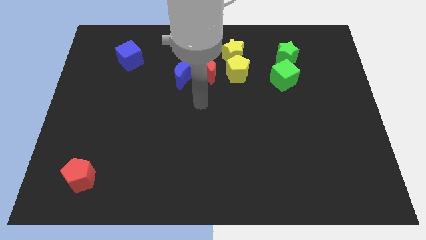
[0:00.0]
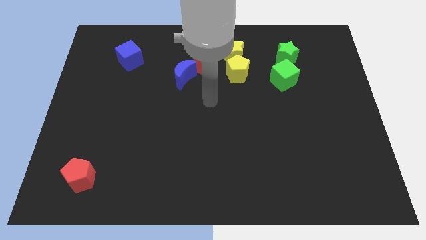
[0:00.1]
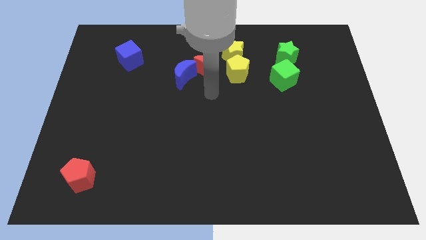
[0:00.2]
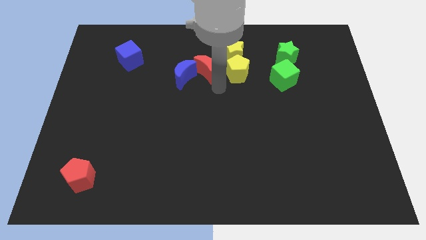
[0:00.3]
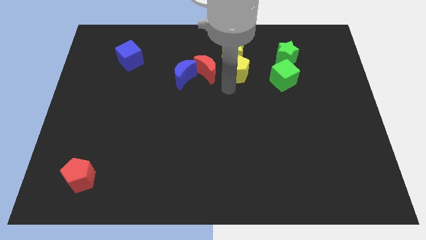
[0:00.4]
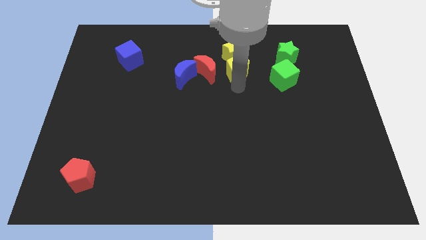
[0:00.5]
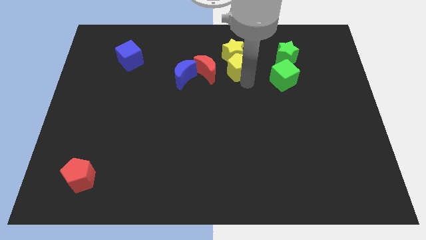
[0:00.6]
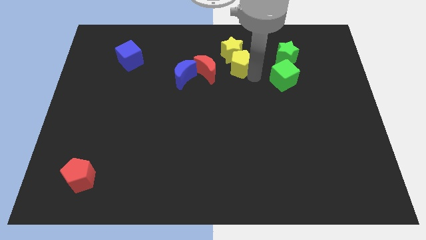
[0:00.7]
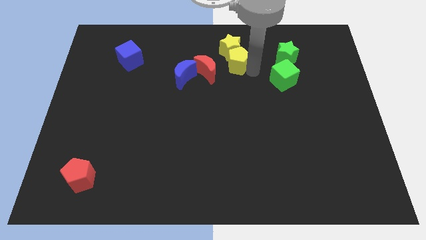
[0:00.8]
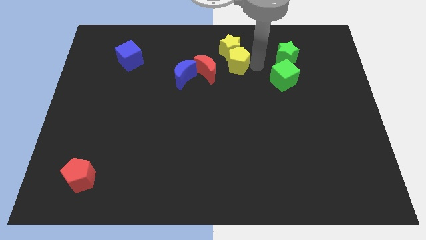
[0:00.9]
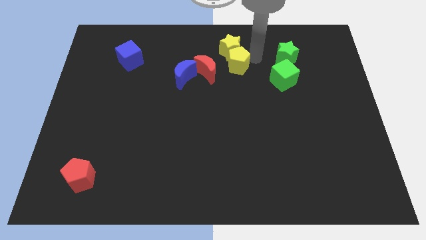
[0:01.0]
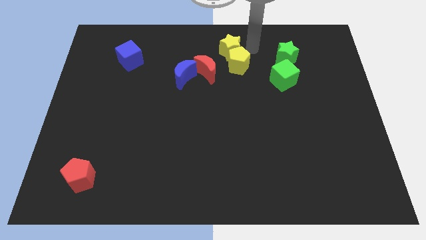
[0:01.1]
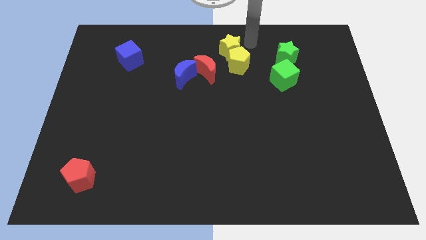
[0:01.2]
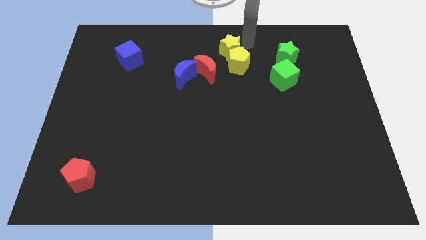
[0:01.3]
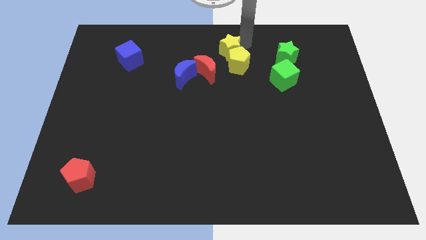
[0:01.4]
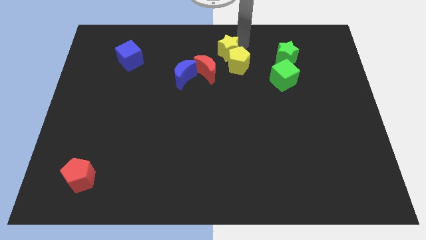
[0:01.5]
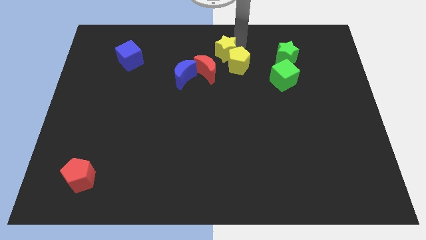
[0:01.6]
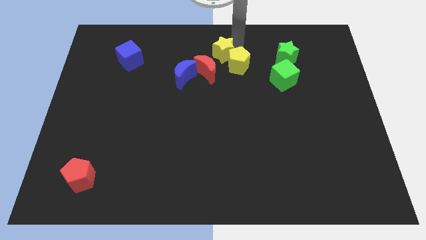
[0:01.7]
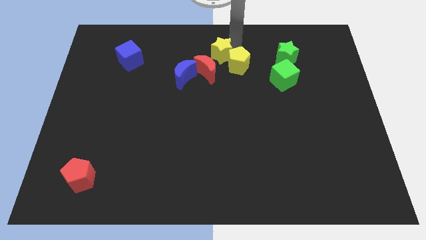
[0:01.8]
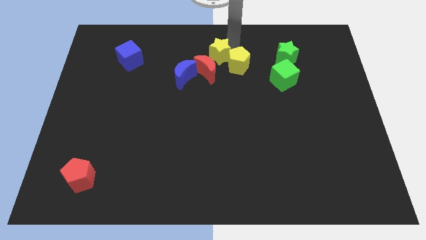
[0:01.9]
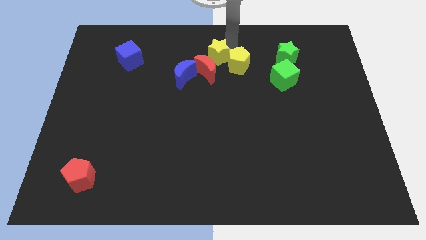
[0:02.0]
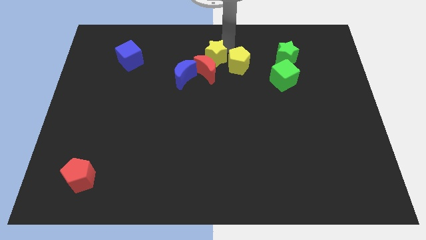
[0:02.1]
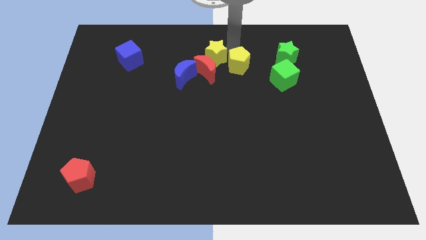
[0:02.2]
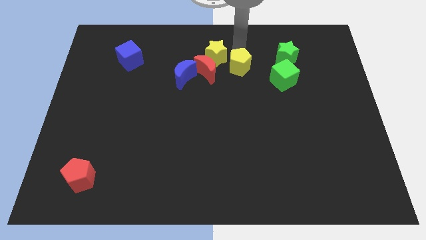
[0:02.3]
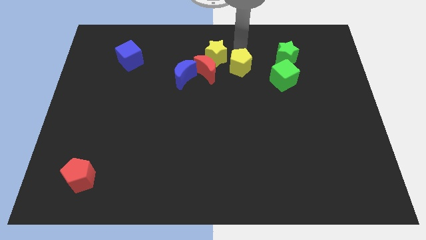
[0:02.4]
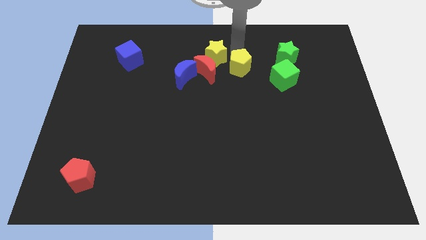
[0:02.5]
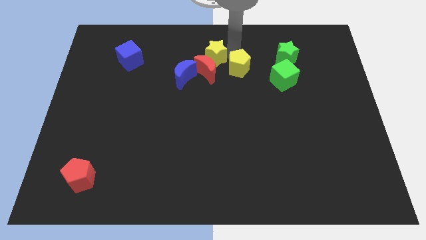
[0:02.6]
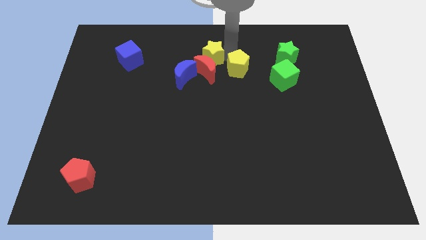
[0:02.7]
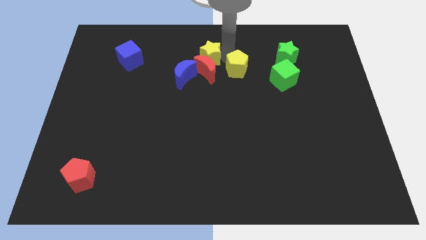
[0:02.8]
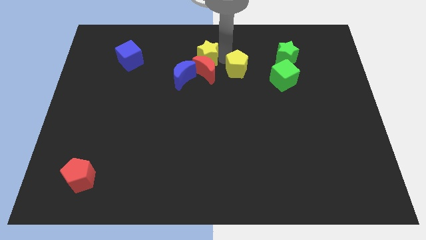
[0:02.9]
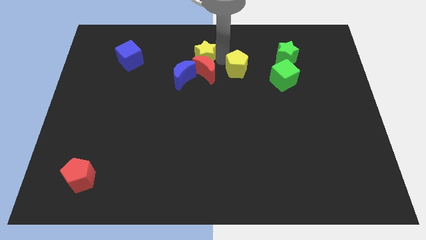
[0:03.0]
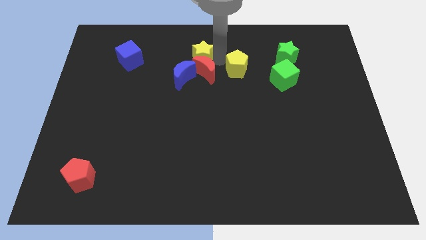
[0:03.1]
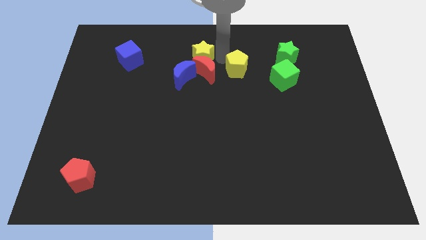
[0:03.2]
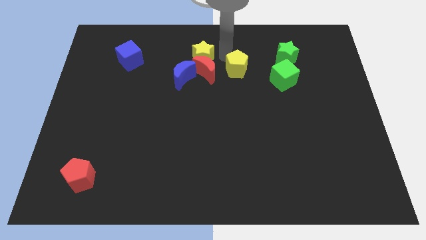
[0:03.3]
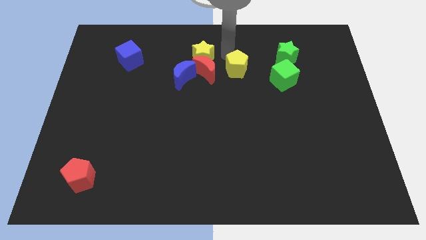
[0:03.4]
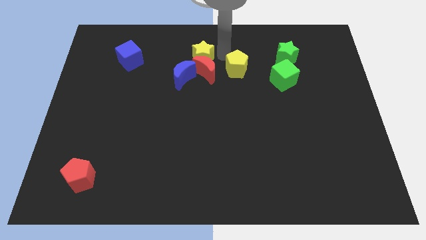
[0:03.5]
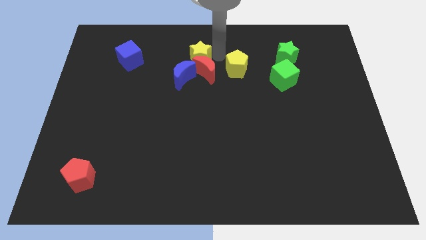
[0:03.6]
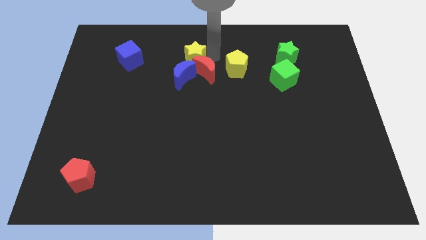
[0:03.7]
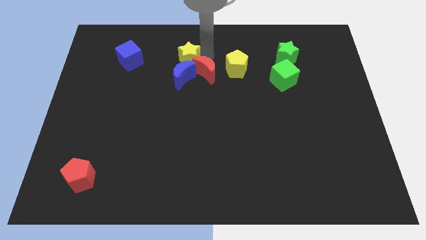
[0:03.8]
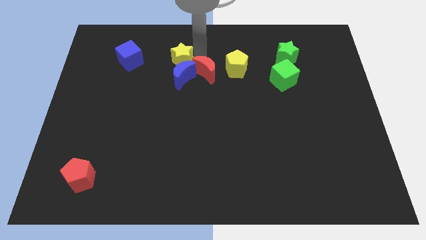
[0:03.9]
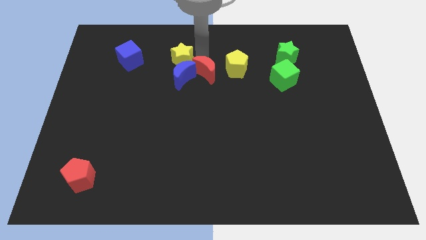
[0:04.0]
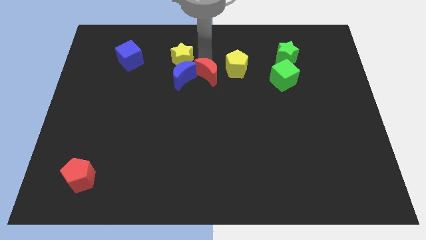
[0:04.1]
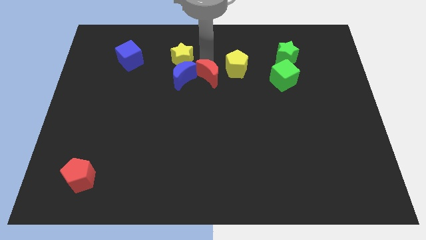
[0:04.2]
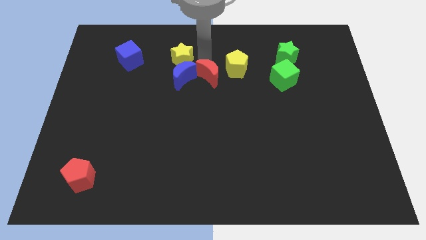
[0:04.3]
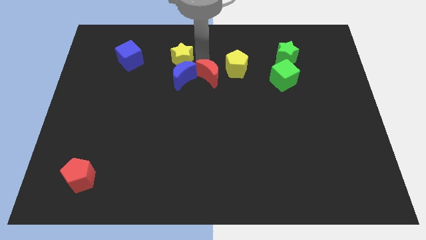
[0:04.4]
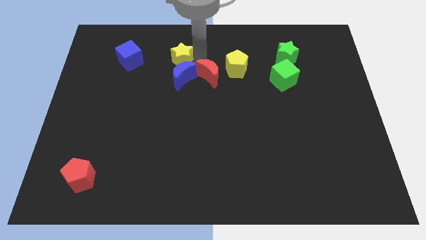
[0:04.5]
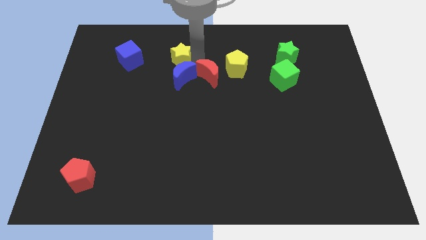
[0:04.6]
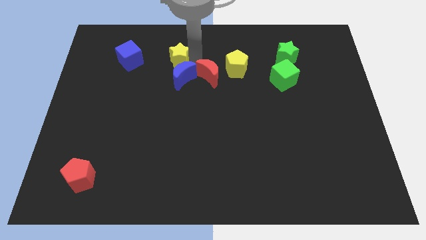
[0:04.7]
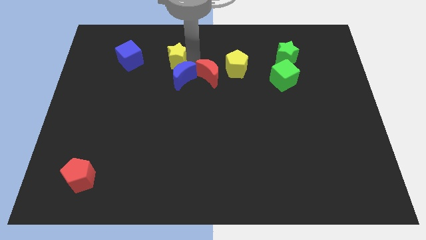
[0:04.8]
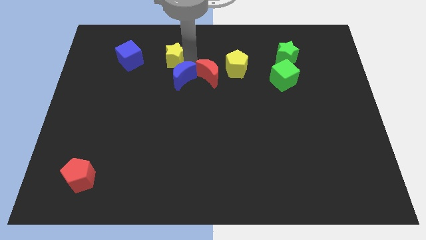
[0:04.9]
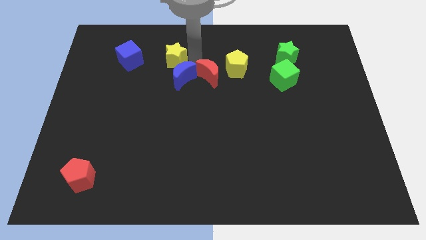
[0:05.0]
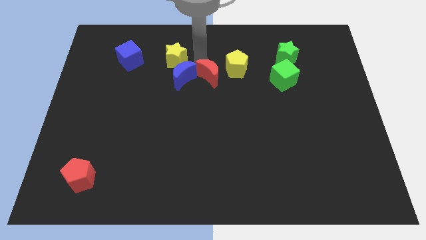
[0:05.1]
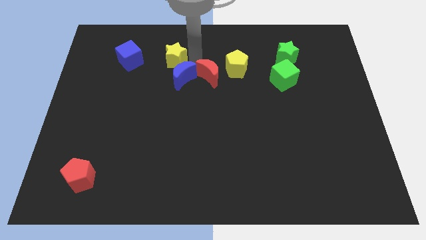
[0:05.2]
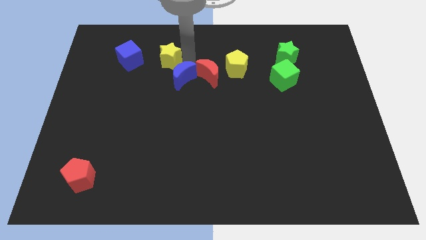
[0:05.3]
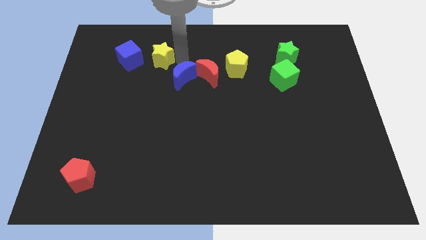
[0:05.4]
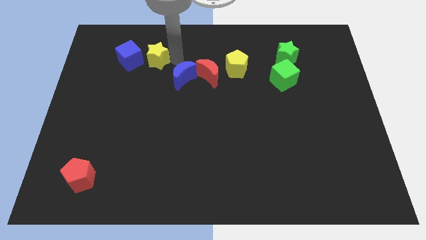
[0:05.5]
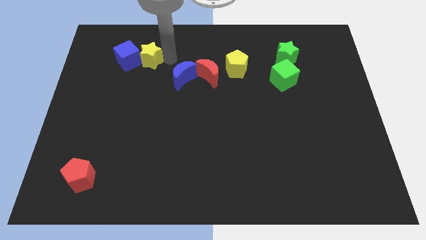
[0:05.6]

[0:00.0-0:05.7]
move the yellow star to the blue cube

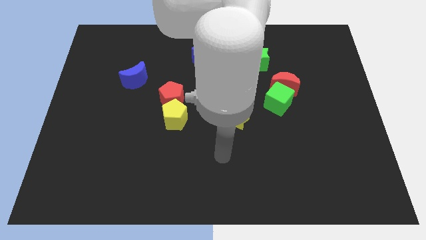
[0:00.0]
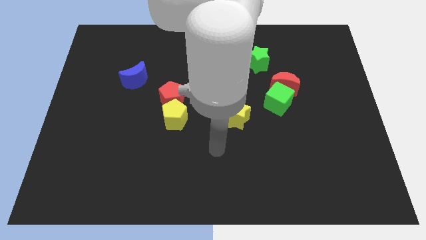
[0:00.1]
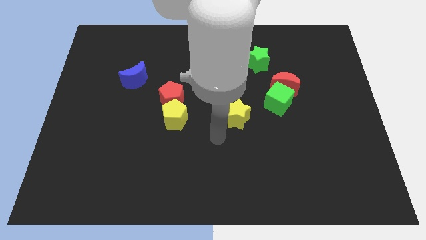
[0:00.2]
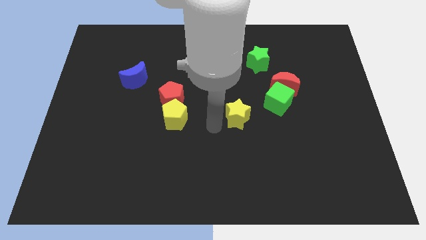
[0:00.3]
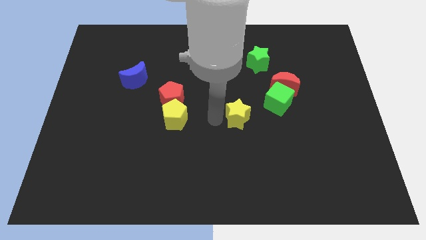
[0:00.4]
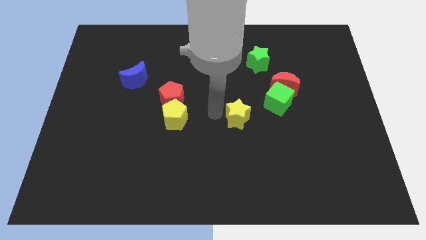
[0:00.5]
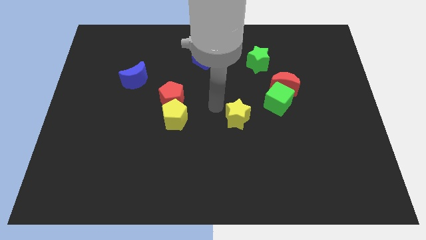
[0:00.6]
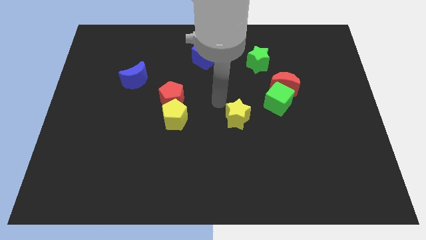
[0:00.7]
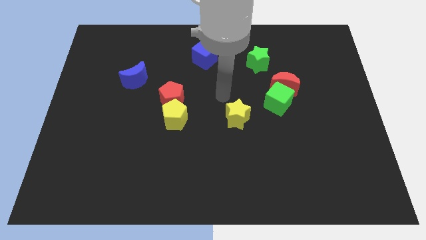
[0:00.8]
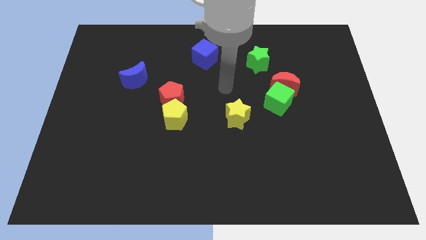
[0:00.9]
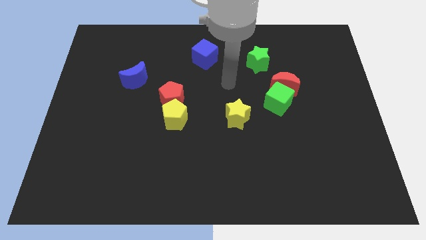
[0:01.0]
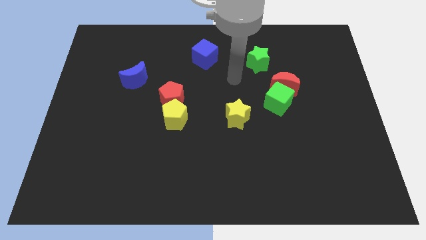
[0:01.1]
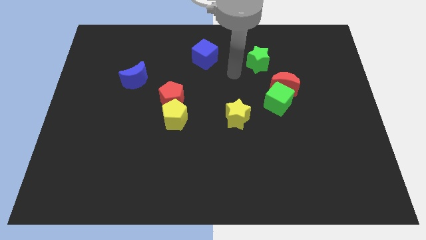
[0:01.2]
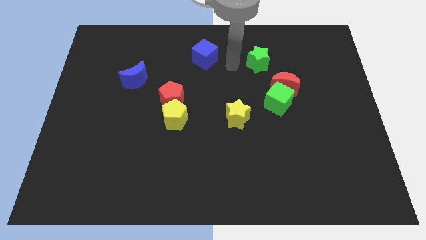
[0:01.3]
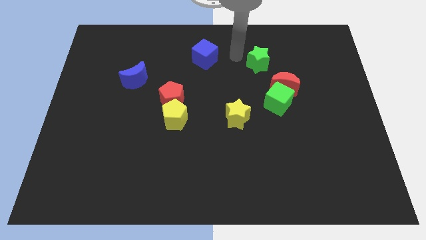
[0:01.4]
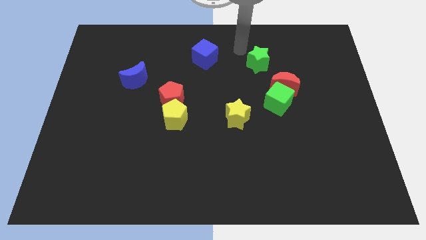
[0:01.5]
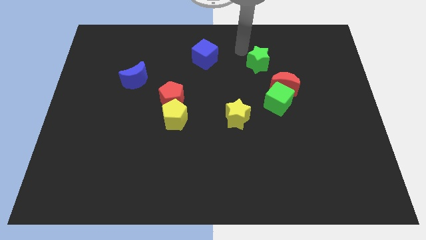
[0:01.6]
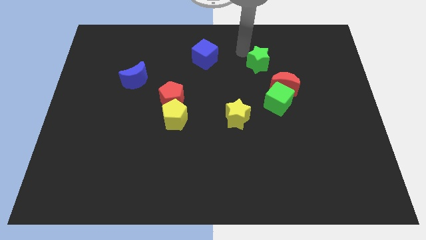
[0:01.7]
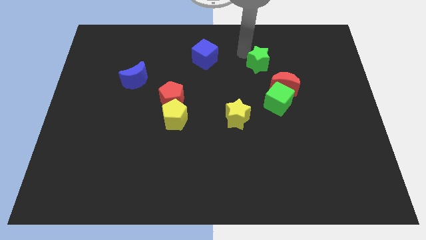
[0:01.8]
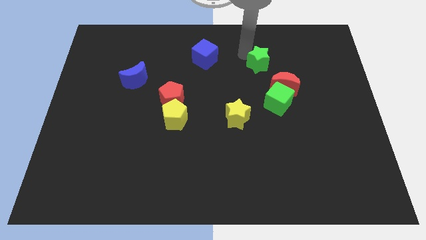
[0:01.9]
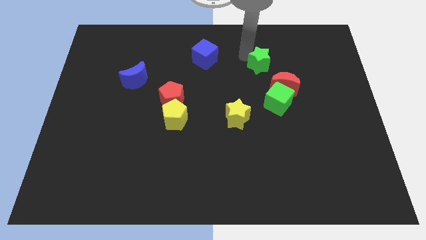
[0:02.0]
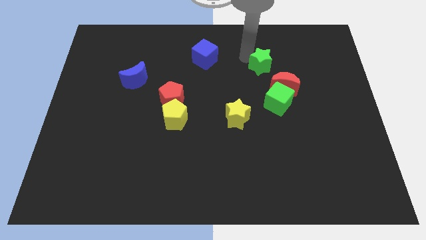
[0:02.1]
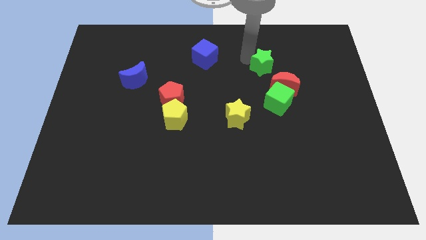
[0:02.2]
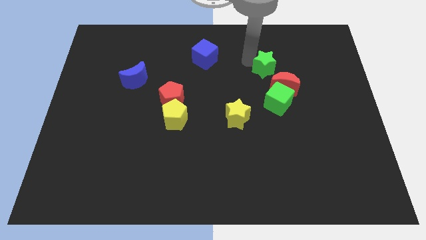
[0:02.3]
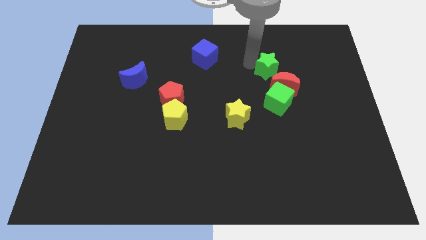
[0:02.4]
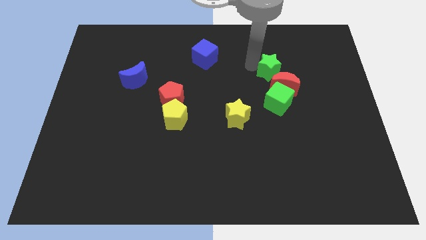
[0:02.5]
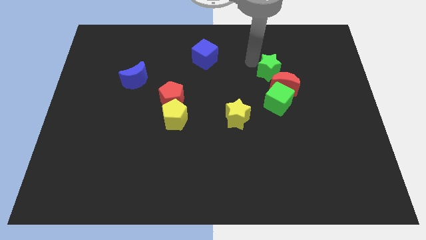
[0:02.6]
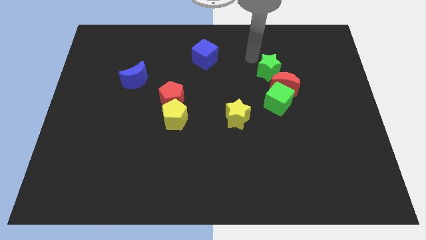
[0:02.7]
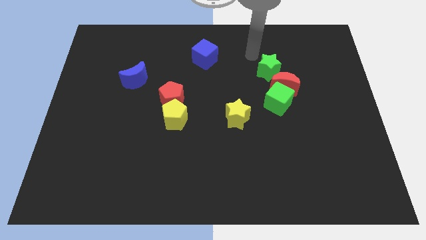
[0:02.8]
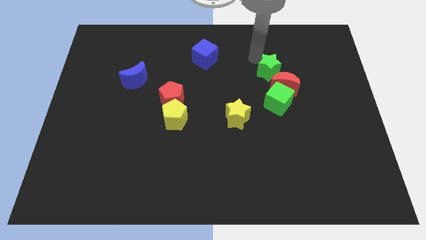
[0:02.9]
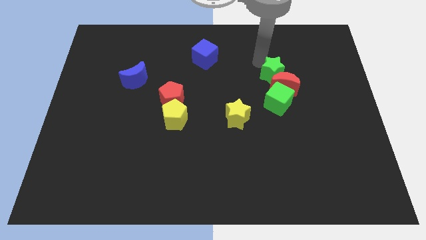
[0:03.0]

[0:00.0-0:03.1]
put the green star to the red moon
